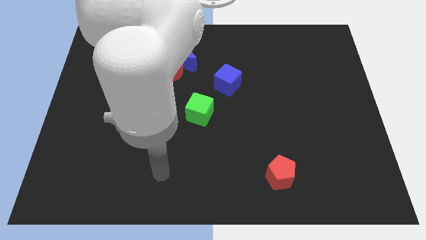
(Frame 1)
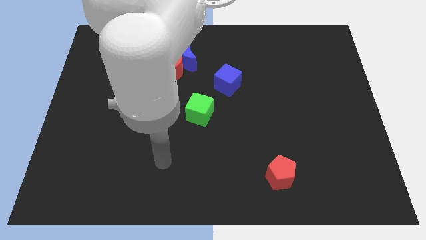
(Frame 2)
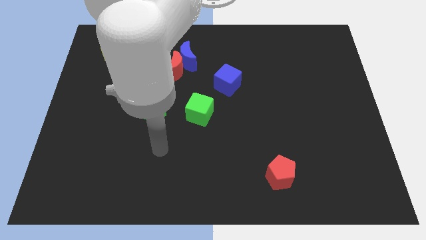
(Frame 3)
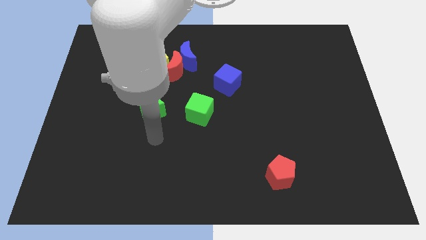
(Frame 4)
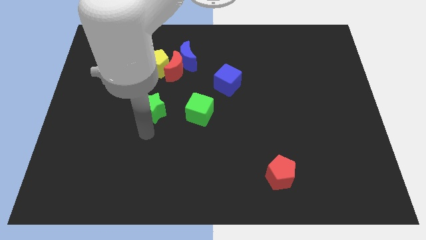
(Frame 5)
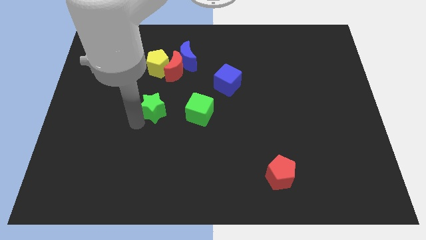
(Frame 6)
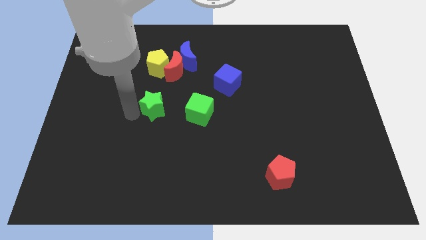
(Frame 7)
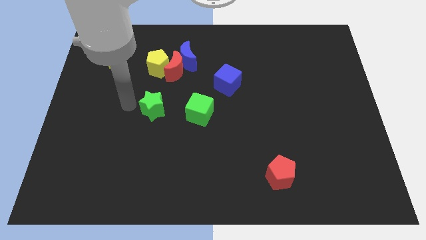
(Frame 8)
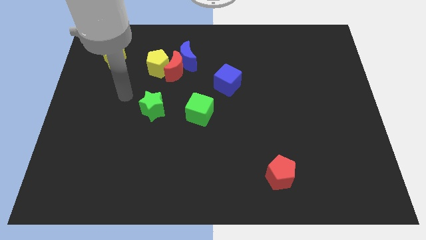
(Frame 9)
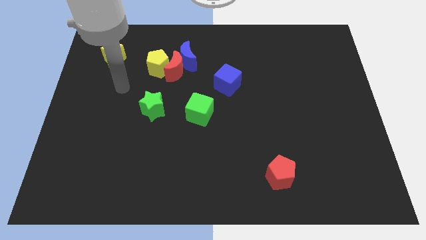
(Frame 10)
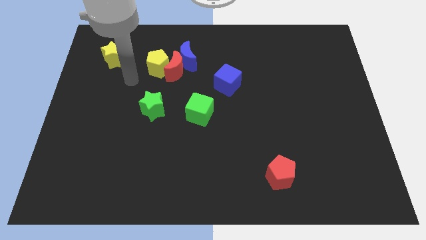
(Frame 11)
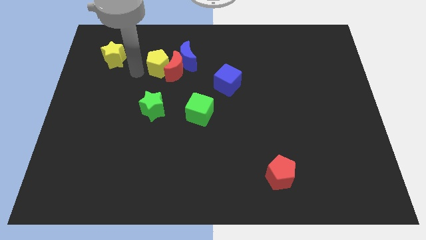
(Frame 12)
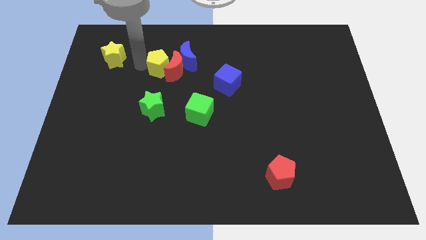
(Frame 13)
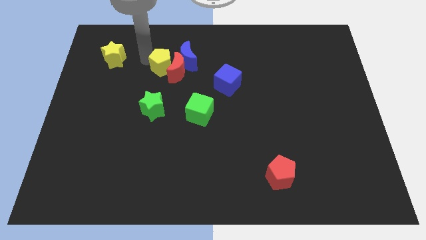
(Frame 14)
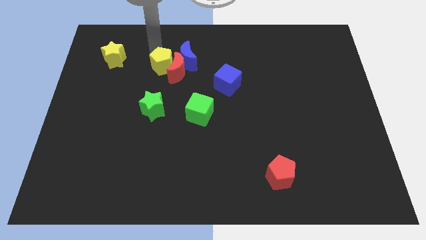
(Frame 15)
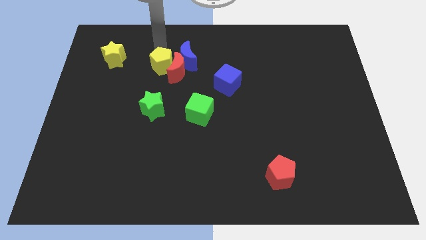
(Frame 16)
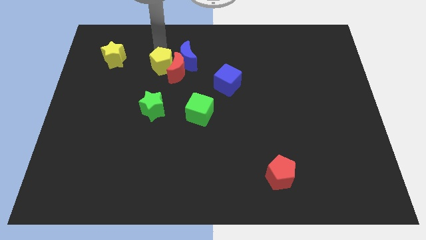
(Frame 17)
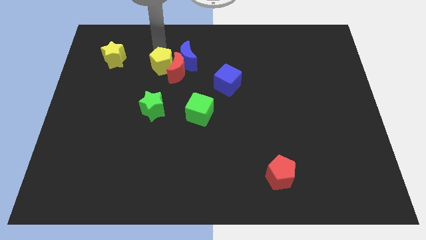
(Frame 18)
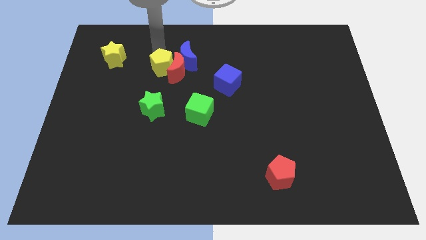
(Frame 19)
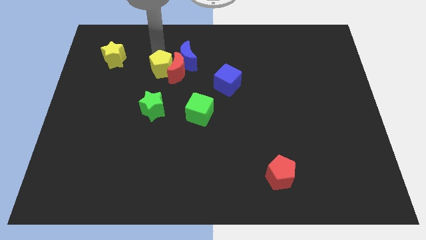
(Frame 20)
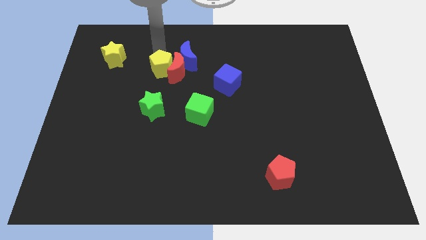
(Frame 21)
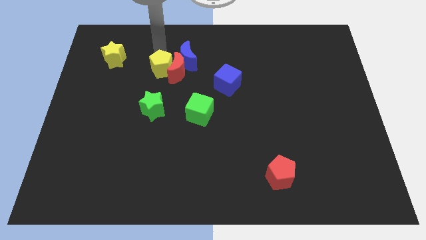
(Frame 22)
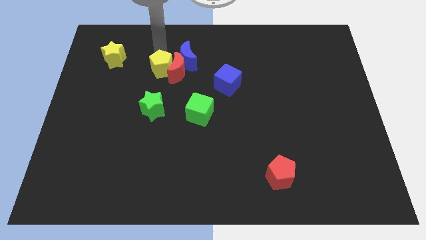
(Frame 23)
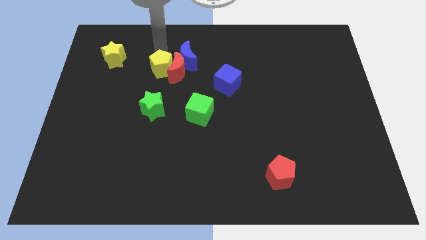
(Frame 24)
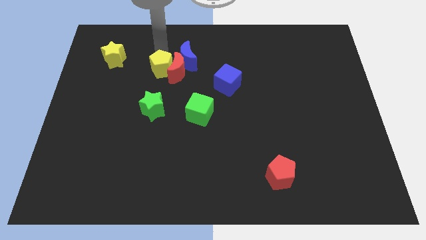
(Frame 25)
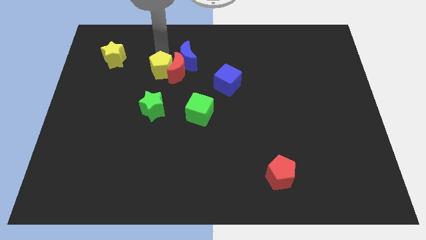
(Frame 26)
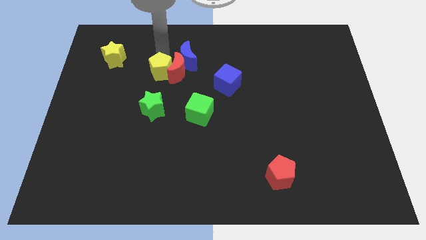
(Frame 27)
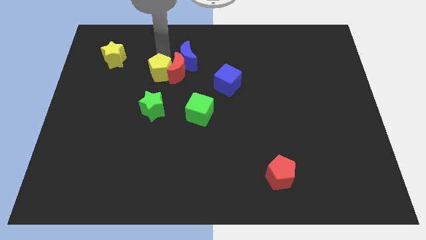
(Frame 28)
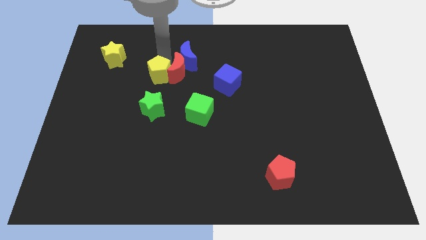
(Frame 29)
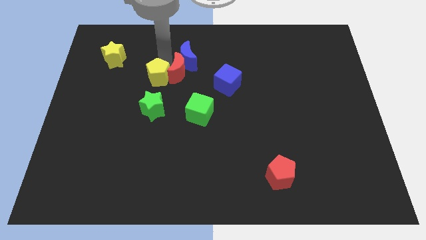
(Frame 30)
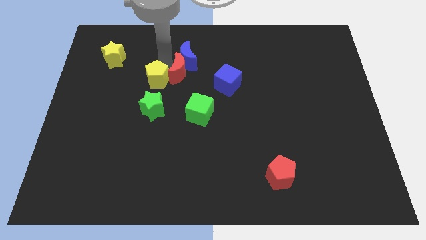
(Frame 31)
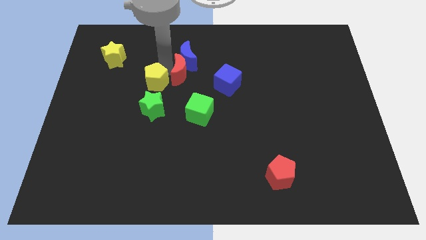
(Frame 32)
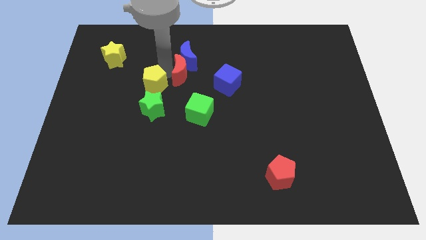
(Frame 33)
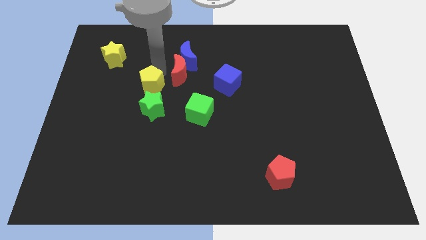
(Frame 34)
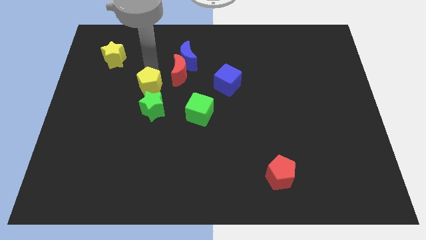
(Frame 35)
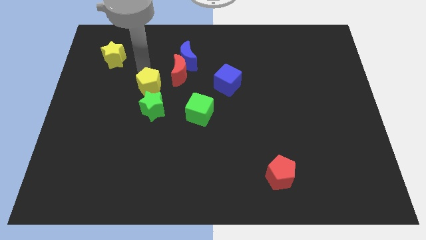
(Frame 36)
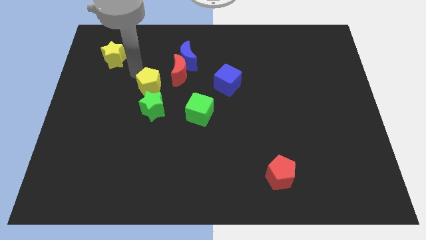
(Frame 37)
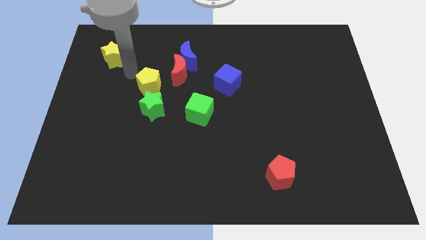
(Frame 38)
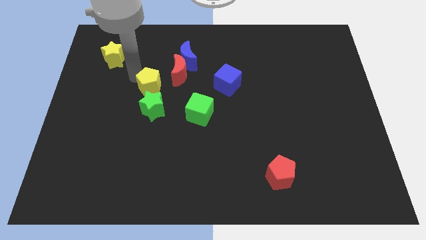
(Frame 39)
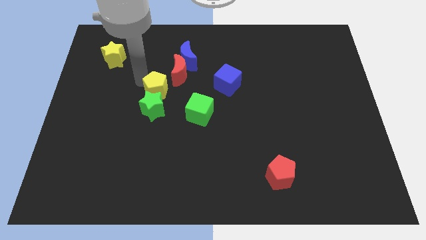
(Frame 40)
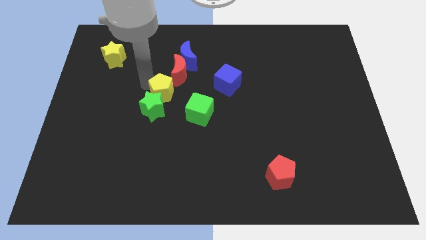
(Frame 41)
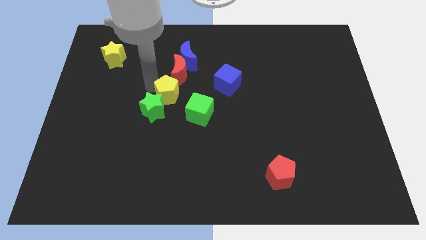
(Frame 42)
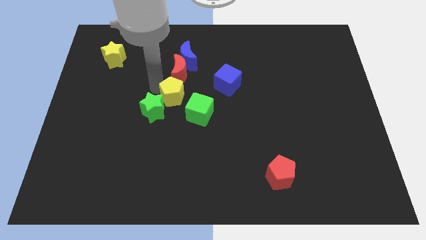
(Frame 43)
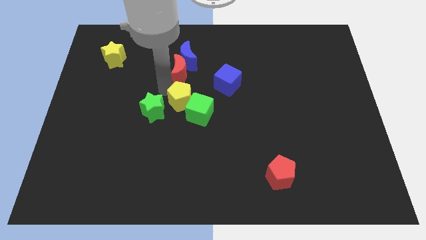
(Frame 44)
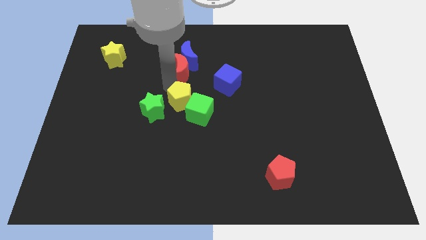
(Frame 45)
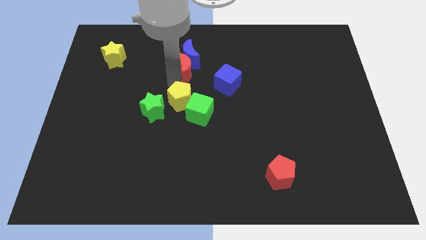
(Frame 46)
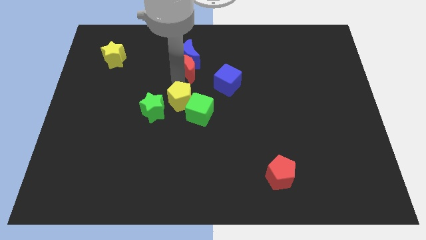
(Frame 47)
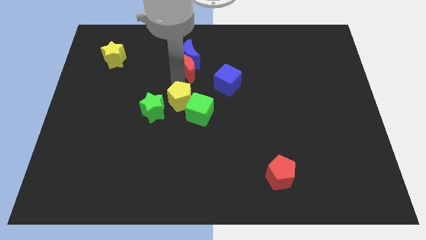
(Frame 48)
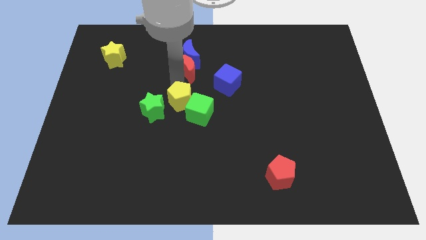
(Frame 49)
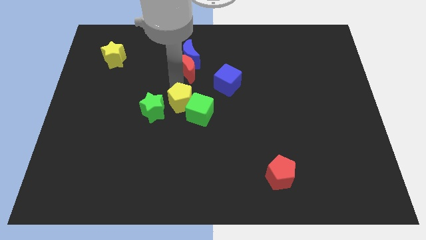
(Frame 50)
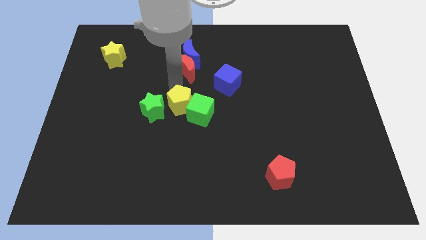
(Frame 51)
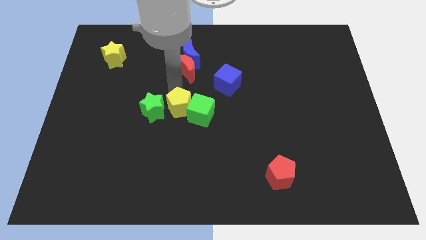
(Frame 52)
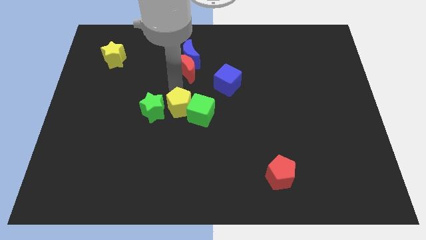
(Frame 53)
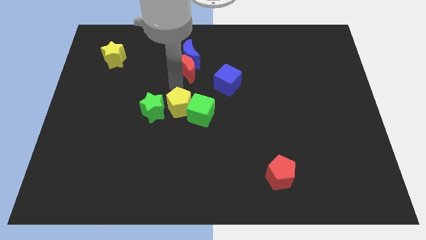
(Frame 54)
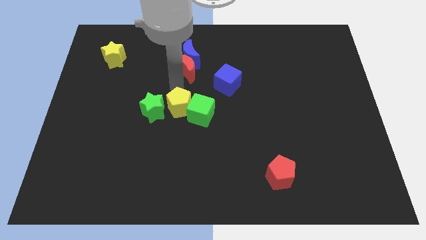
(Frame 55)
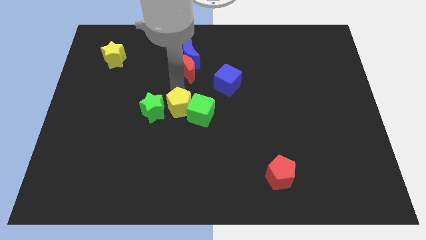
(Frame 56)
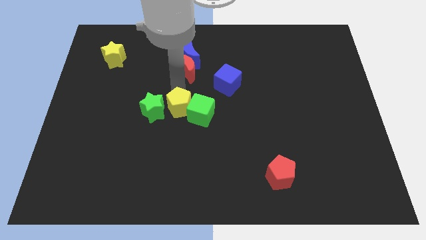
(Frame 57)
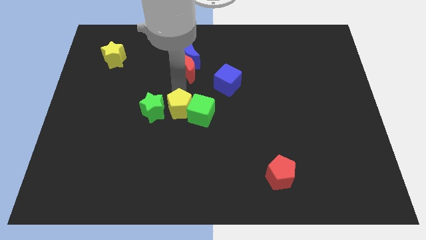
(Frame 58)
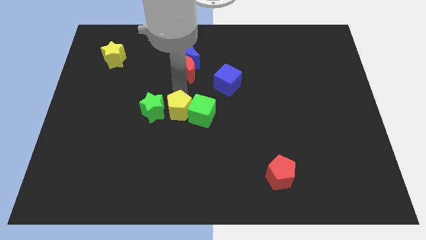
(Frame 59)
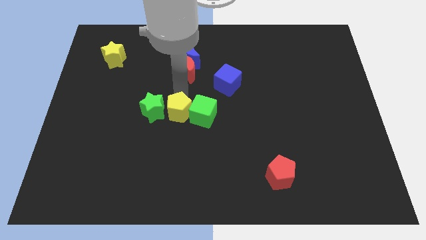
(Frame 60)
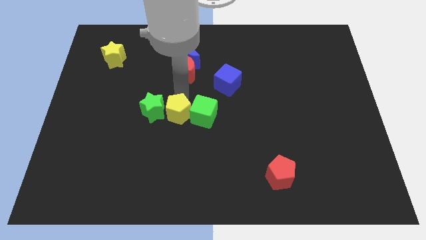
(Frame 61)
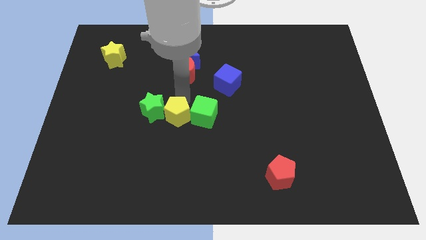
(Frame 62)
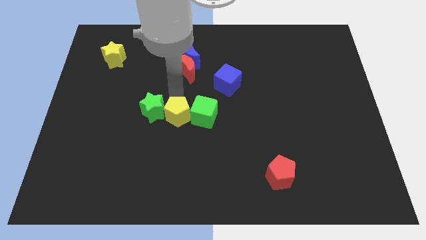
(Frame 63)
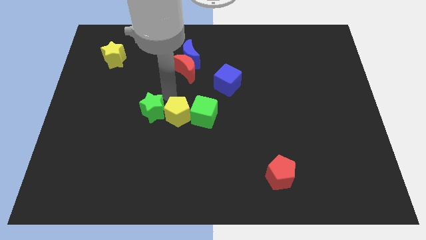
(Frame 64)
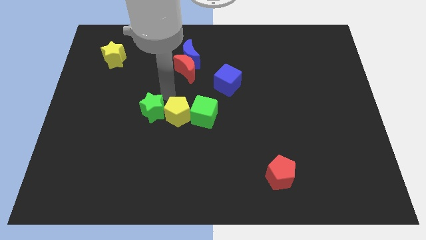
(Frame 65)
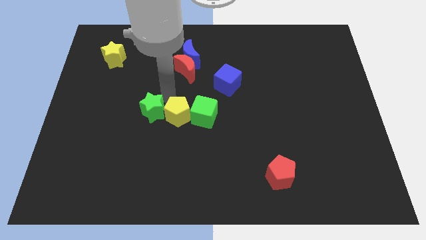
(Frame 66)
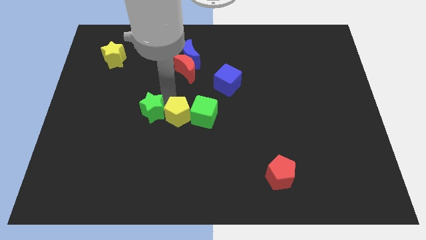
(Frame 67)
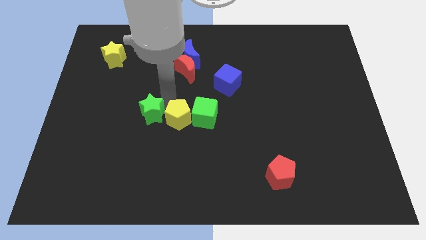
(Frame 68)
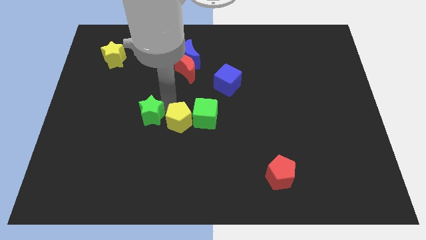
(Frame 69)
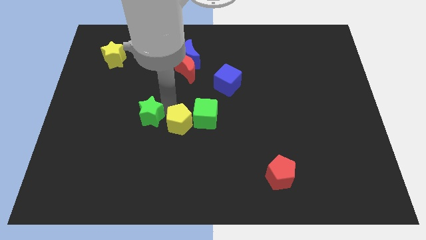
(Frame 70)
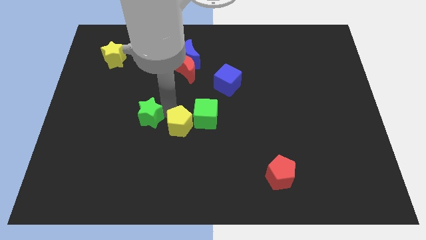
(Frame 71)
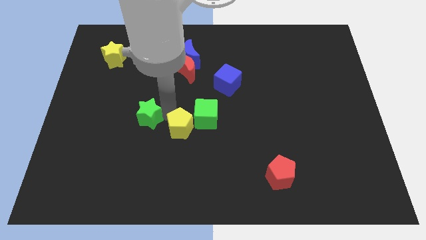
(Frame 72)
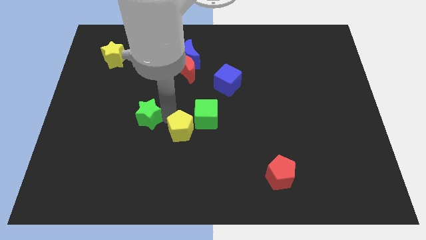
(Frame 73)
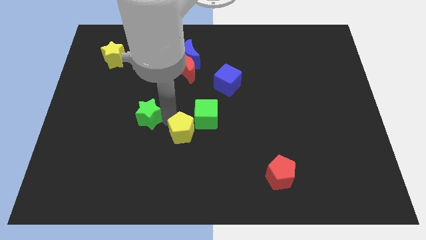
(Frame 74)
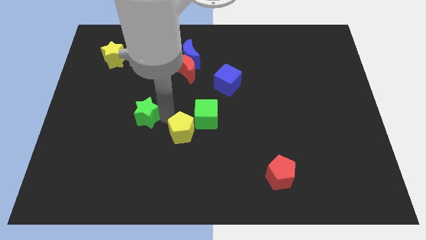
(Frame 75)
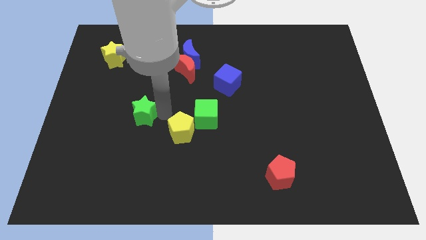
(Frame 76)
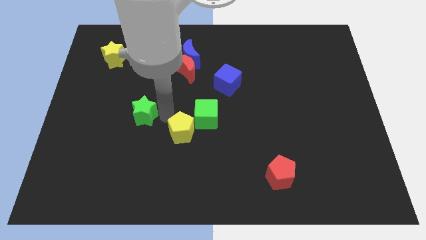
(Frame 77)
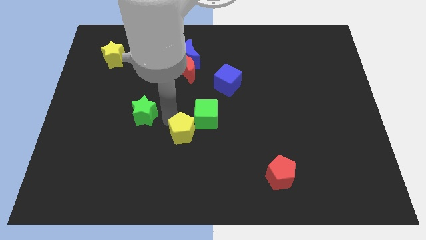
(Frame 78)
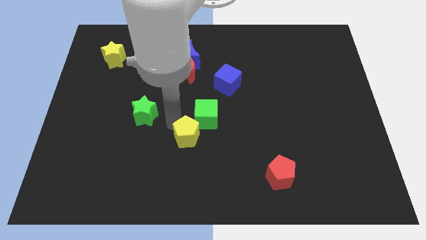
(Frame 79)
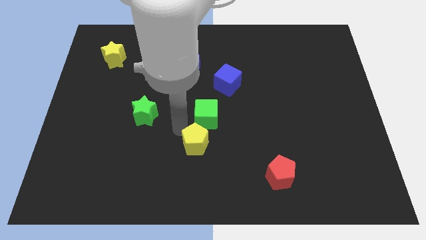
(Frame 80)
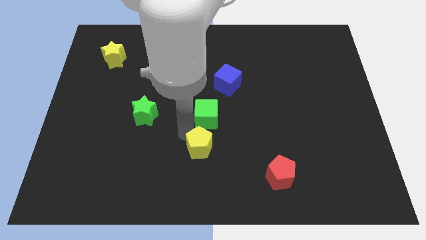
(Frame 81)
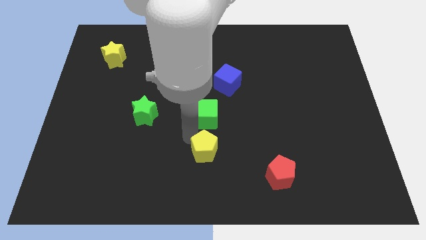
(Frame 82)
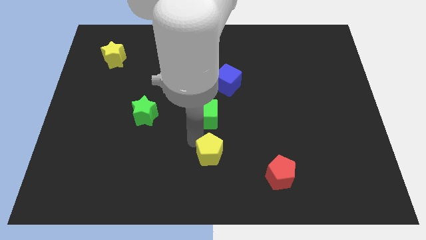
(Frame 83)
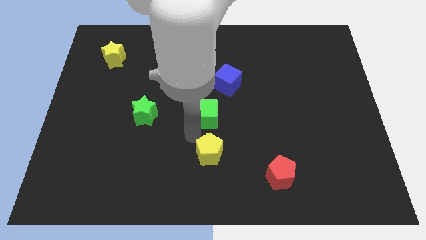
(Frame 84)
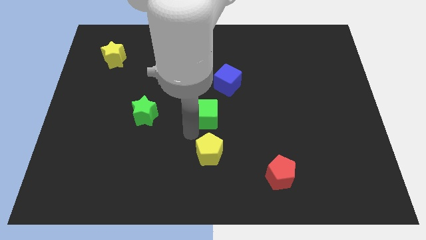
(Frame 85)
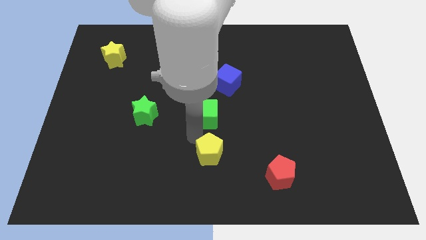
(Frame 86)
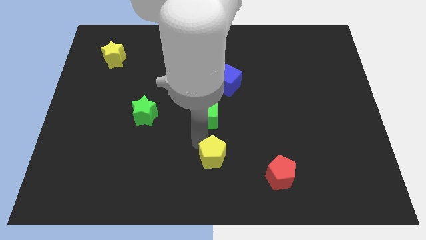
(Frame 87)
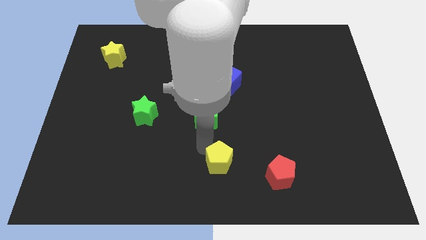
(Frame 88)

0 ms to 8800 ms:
move the yellow pentagon to the left of the red pentagon
